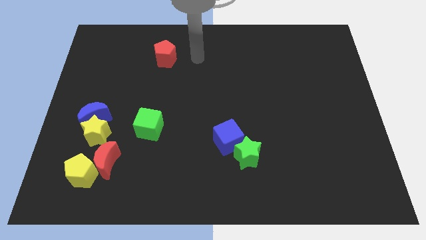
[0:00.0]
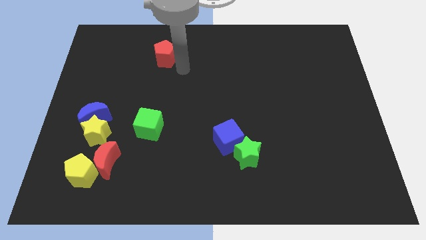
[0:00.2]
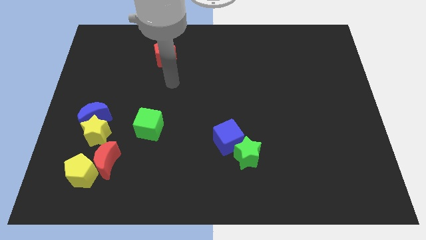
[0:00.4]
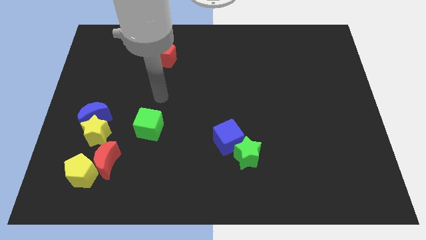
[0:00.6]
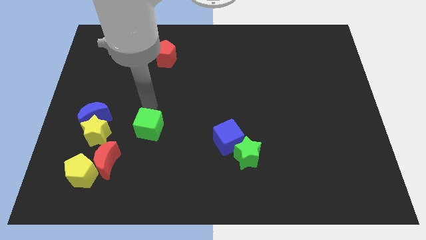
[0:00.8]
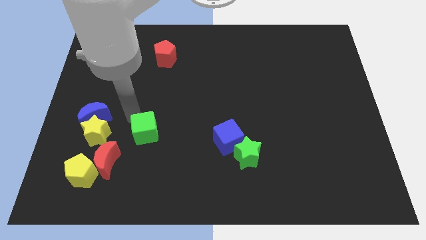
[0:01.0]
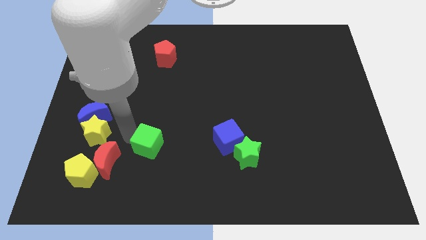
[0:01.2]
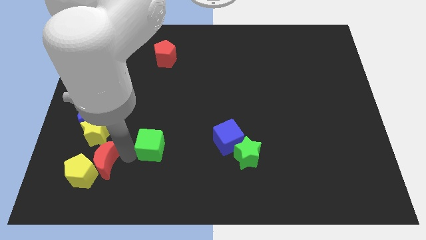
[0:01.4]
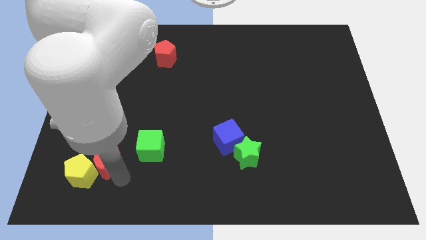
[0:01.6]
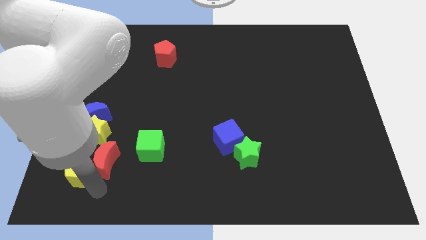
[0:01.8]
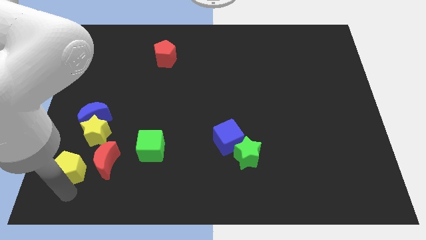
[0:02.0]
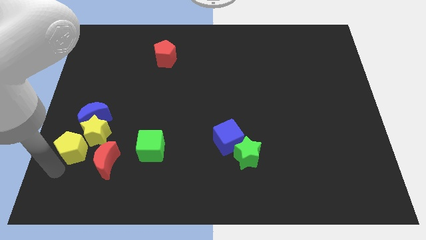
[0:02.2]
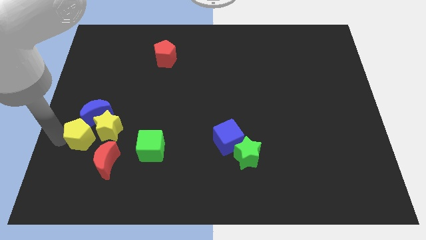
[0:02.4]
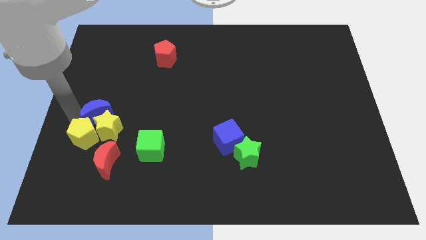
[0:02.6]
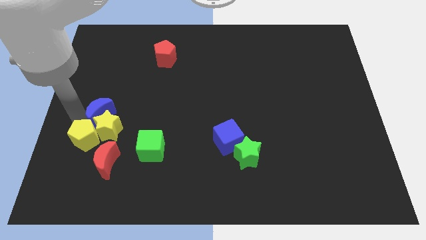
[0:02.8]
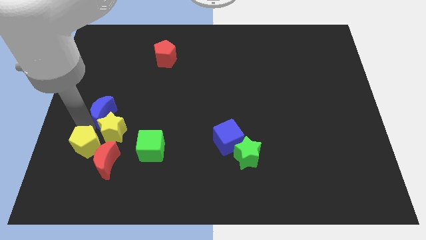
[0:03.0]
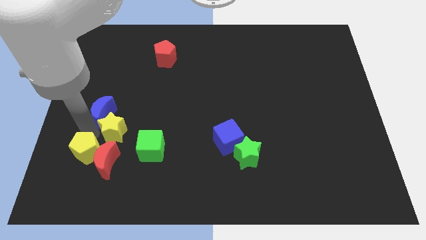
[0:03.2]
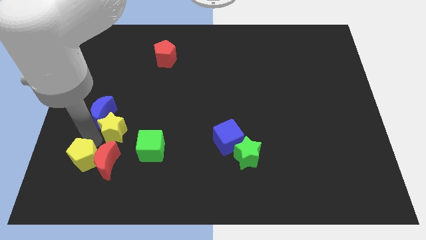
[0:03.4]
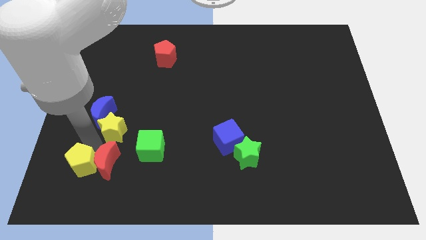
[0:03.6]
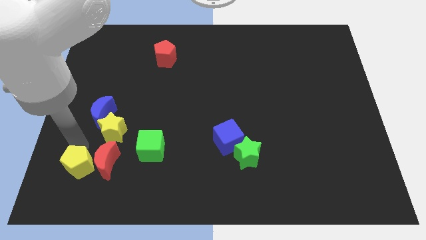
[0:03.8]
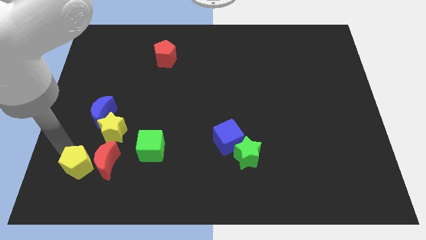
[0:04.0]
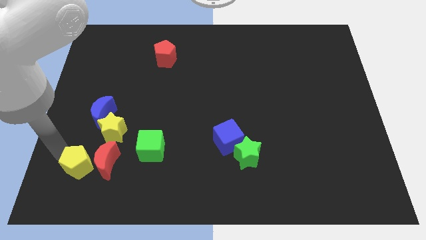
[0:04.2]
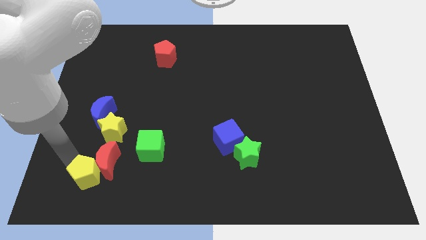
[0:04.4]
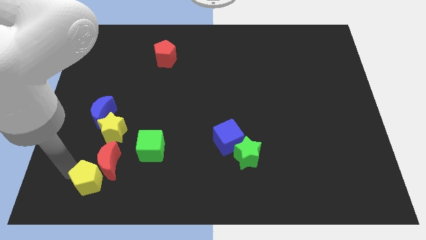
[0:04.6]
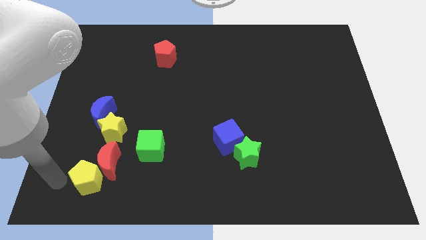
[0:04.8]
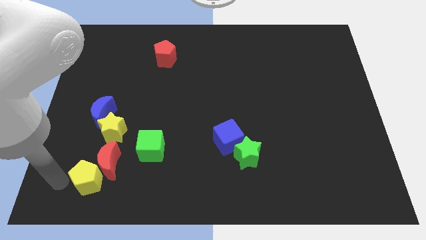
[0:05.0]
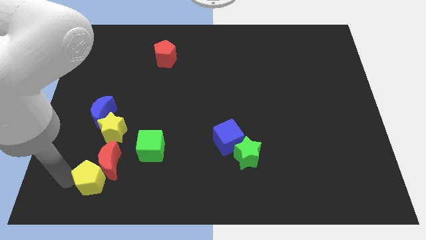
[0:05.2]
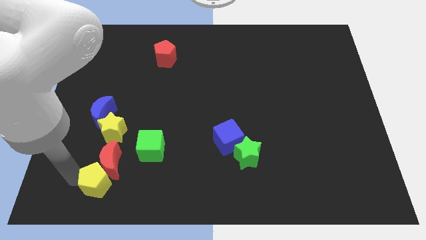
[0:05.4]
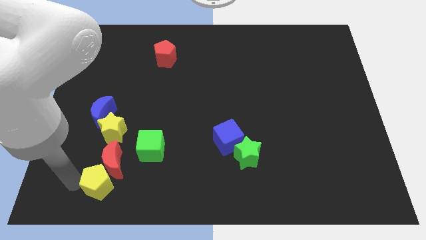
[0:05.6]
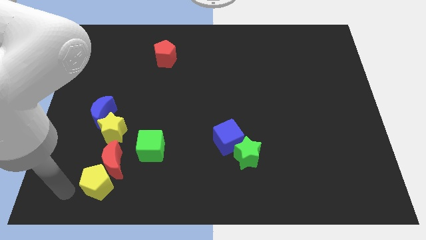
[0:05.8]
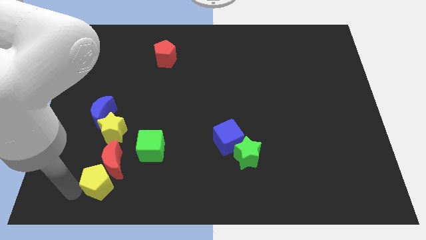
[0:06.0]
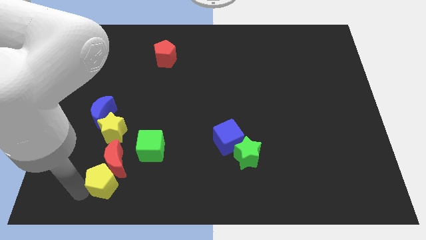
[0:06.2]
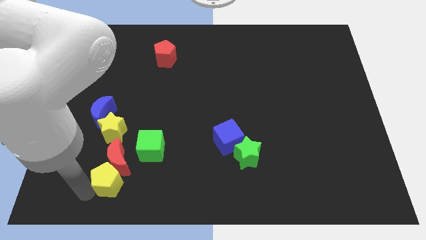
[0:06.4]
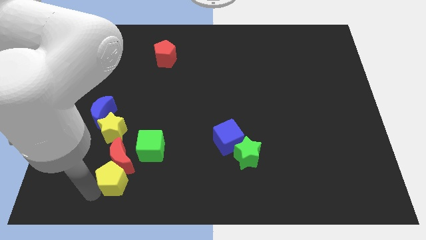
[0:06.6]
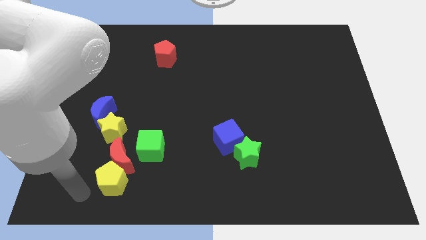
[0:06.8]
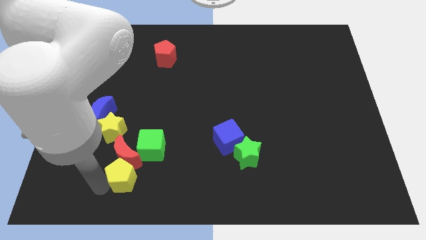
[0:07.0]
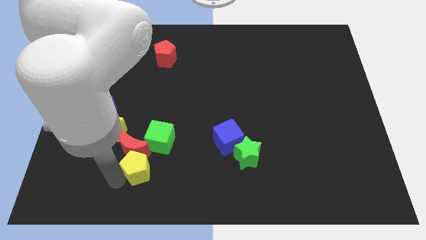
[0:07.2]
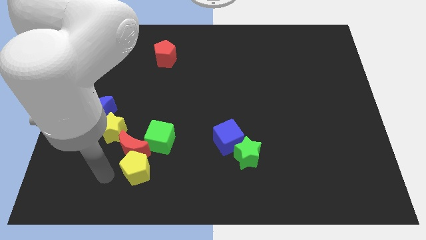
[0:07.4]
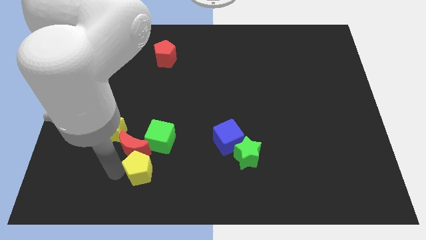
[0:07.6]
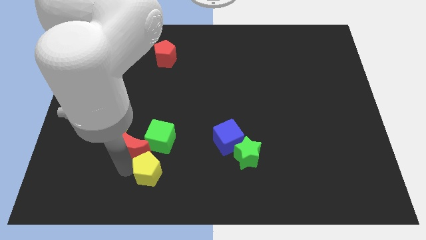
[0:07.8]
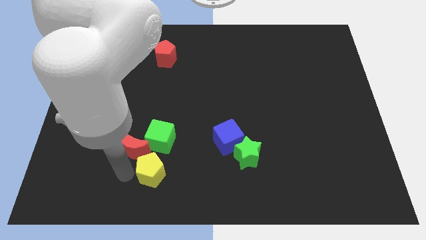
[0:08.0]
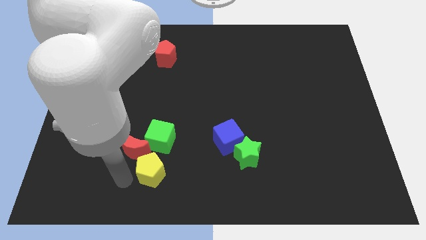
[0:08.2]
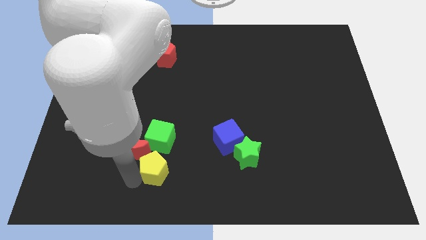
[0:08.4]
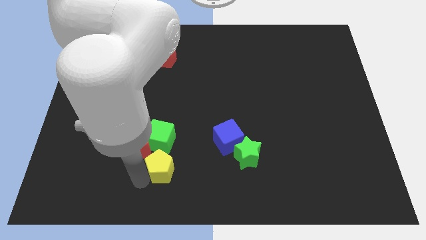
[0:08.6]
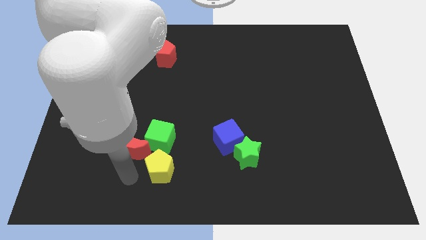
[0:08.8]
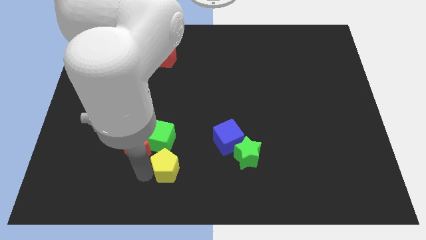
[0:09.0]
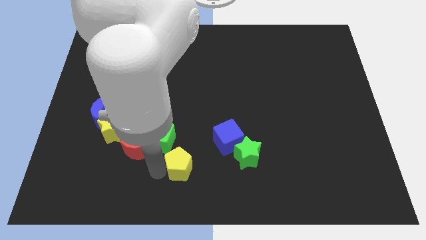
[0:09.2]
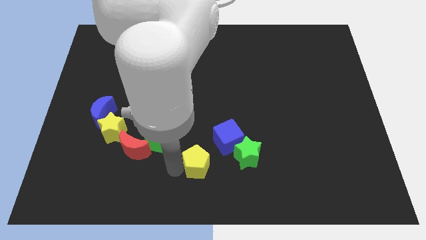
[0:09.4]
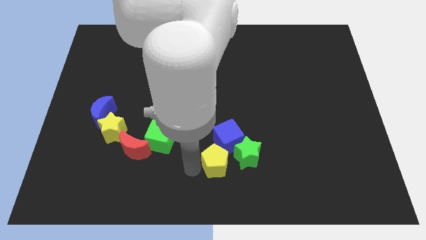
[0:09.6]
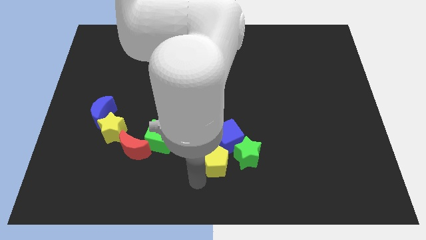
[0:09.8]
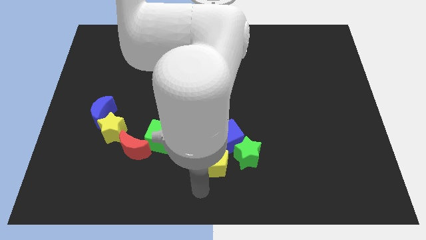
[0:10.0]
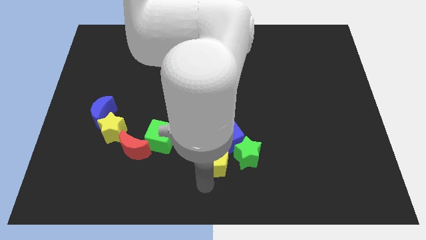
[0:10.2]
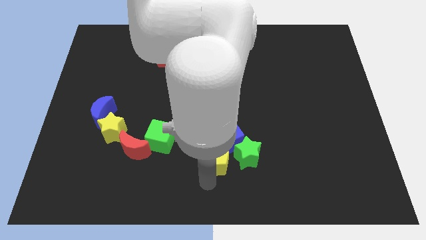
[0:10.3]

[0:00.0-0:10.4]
slide the yellow pentagon close to the blue cube

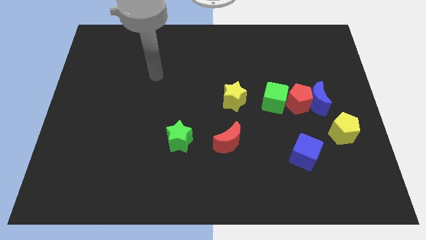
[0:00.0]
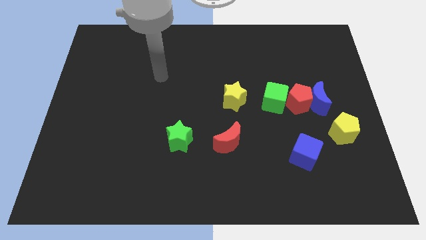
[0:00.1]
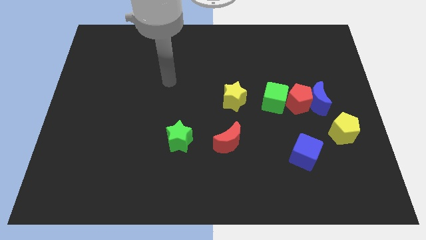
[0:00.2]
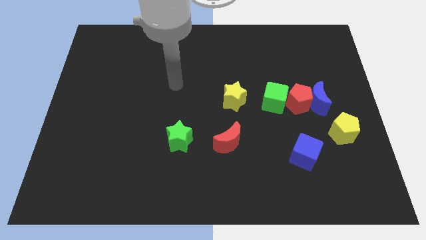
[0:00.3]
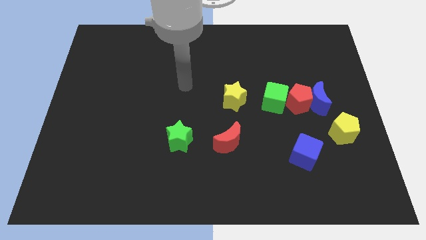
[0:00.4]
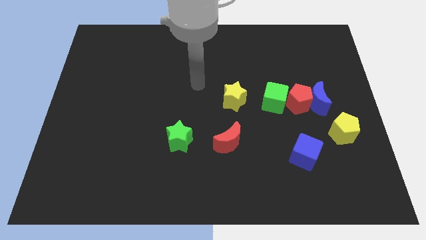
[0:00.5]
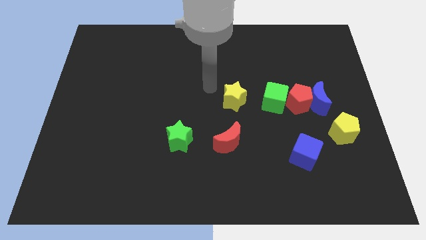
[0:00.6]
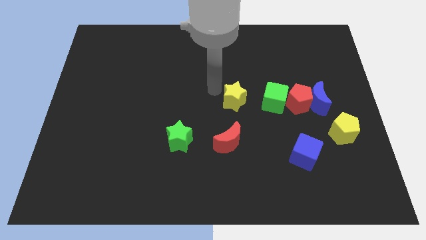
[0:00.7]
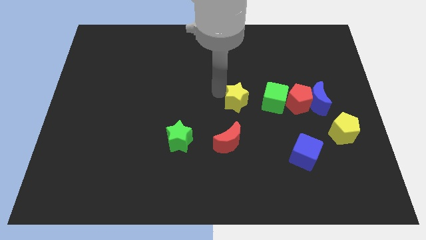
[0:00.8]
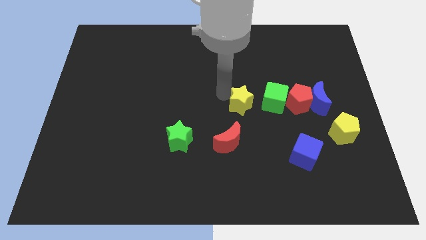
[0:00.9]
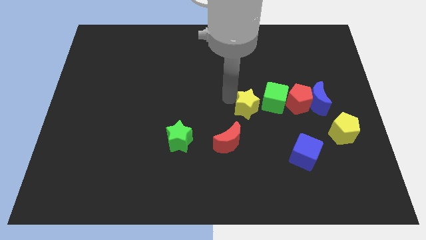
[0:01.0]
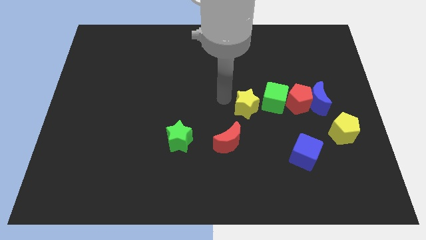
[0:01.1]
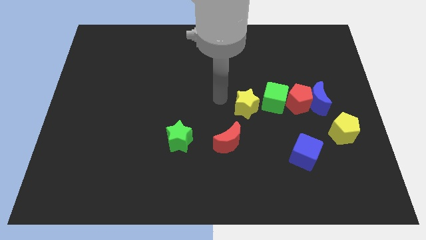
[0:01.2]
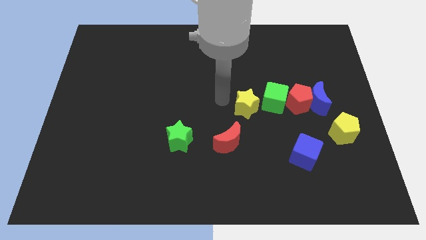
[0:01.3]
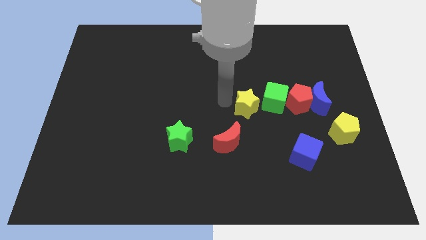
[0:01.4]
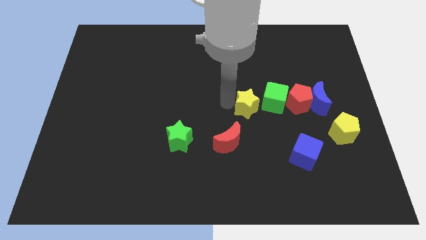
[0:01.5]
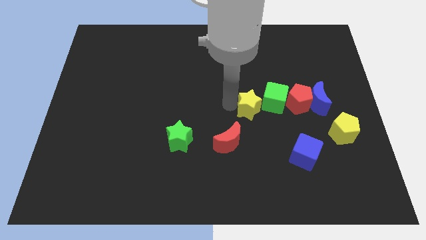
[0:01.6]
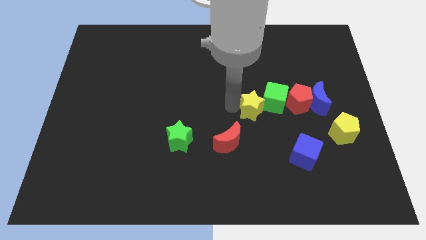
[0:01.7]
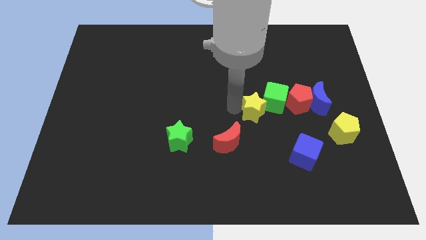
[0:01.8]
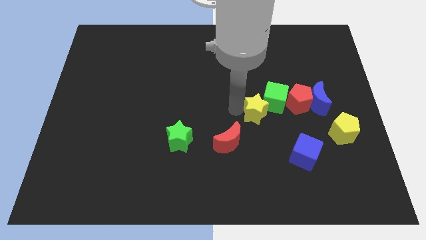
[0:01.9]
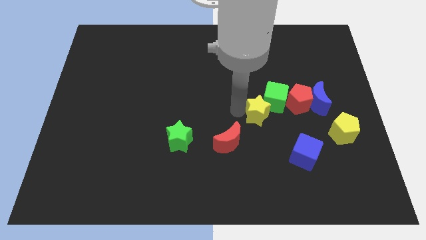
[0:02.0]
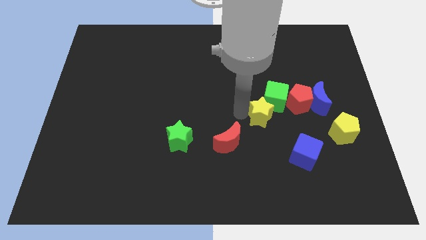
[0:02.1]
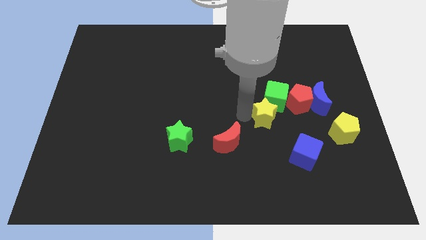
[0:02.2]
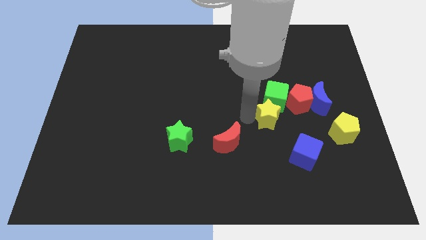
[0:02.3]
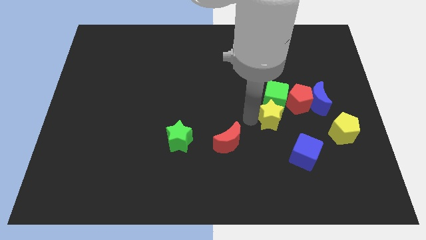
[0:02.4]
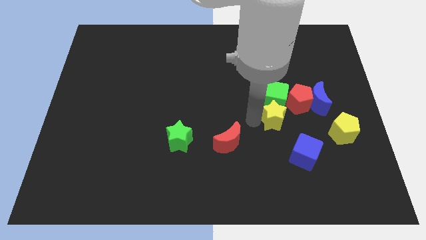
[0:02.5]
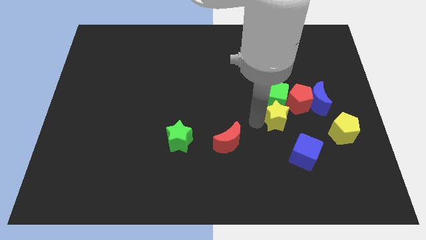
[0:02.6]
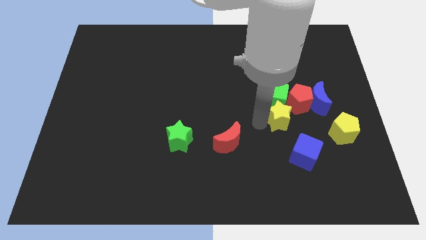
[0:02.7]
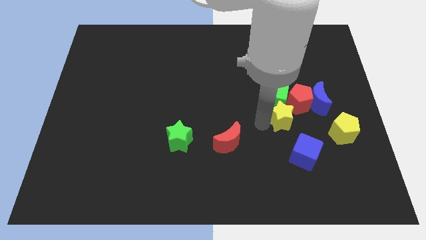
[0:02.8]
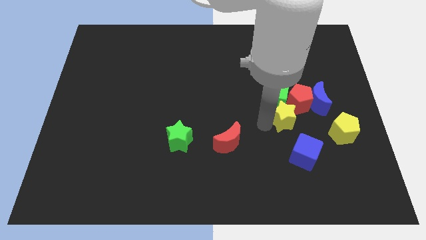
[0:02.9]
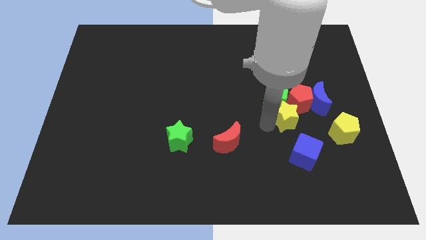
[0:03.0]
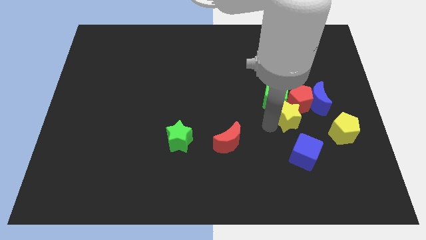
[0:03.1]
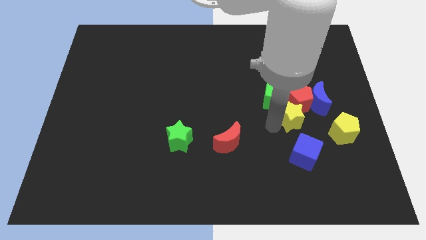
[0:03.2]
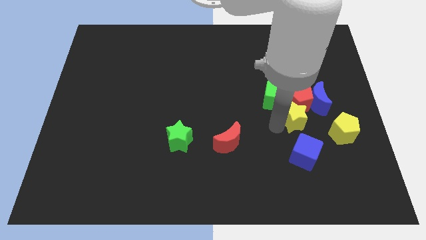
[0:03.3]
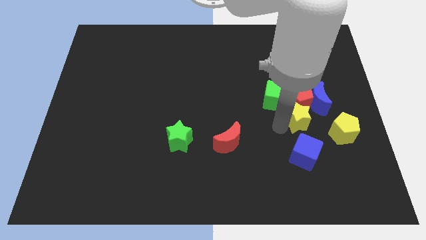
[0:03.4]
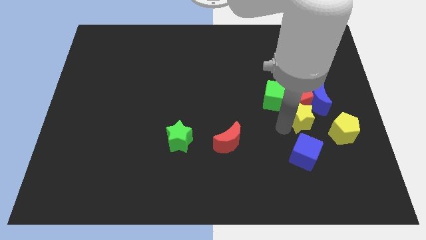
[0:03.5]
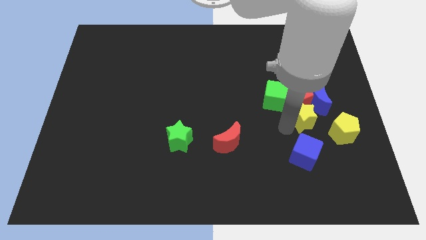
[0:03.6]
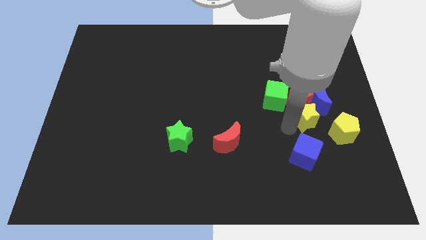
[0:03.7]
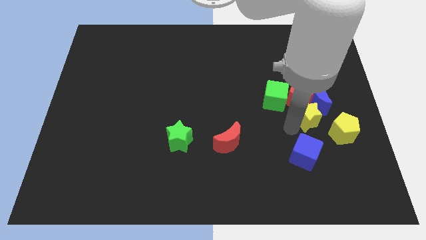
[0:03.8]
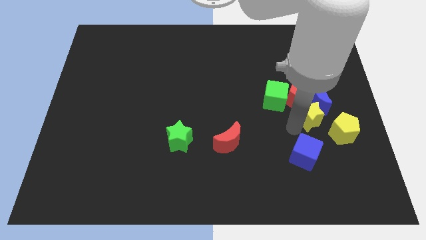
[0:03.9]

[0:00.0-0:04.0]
push the yellow star towards the blue moon
